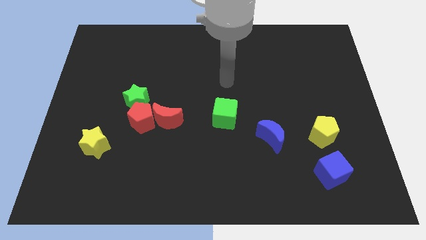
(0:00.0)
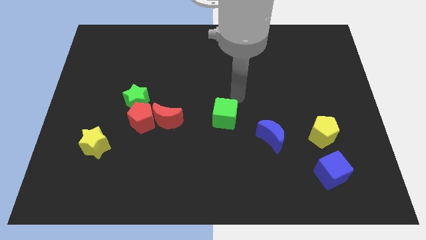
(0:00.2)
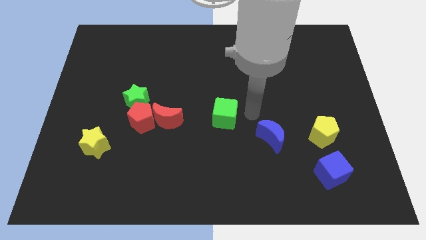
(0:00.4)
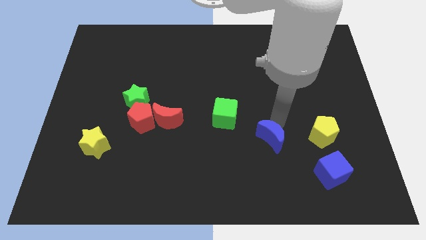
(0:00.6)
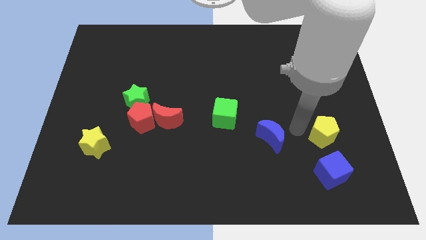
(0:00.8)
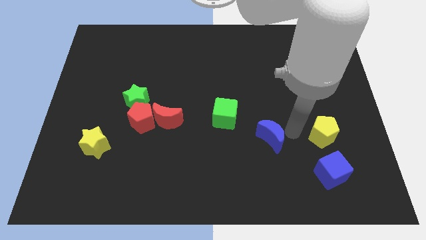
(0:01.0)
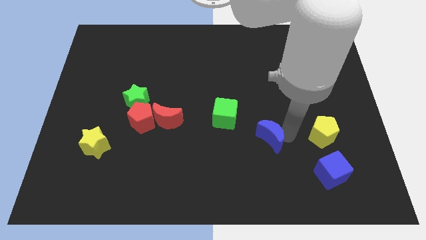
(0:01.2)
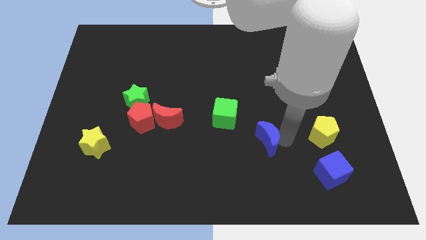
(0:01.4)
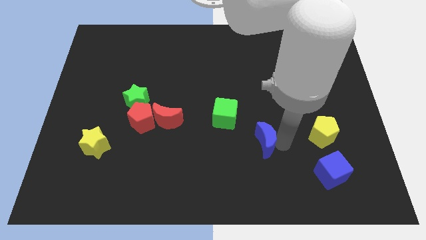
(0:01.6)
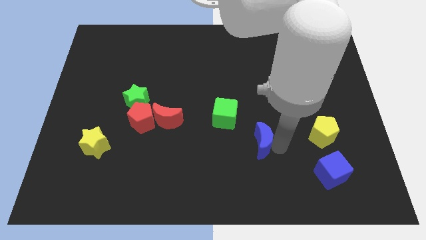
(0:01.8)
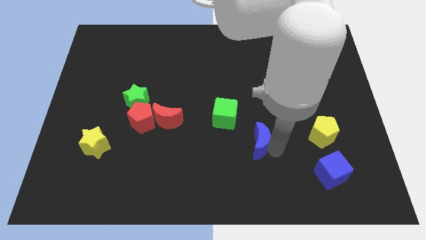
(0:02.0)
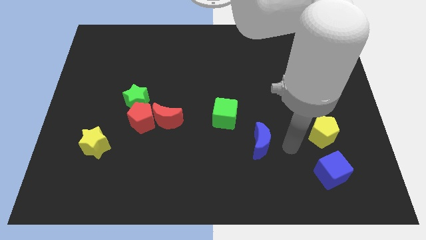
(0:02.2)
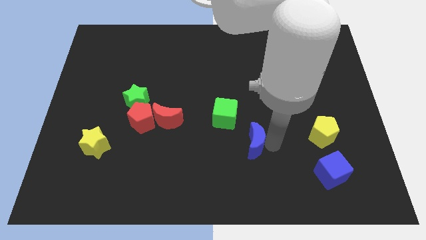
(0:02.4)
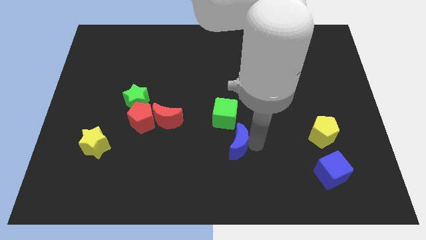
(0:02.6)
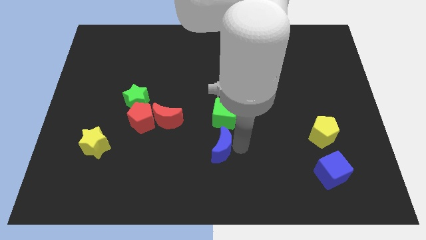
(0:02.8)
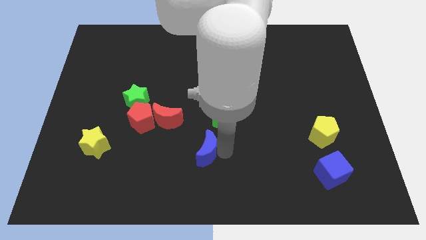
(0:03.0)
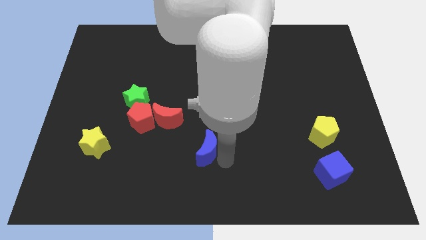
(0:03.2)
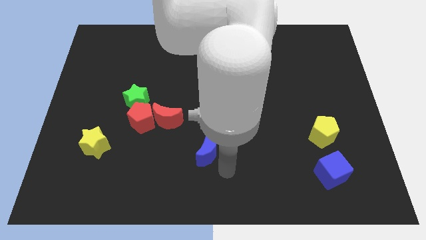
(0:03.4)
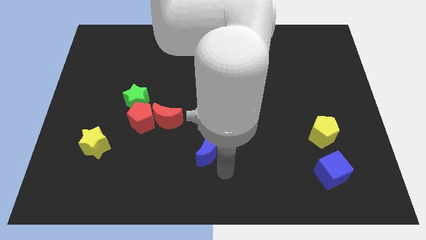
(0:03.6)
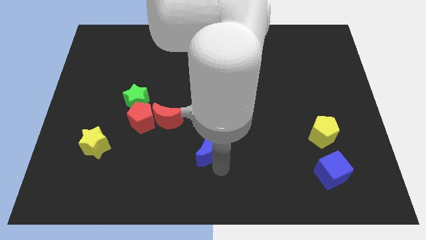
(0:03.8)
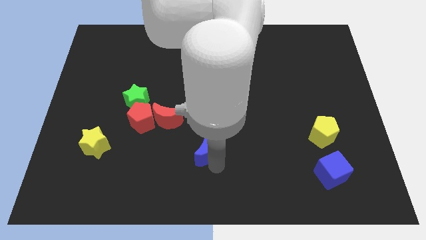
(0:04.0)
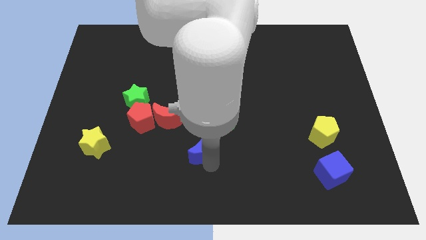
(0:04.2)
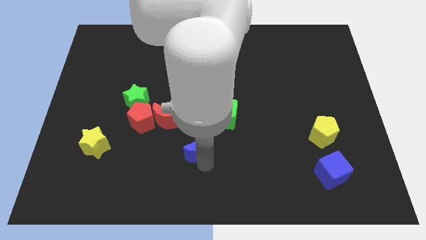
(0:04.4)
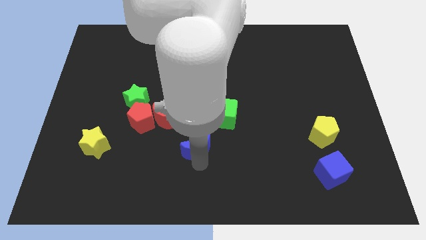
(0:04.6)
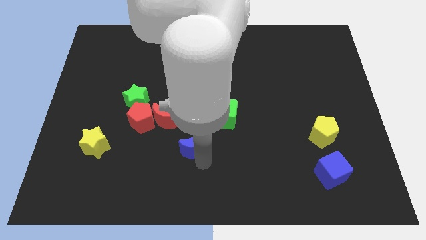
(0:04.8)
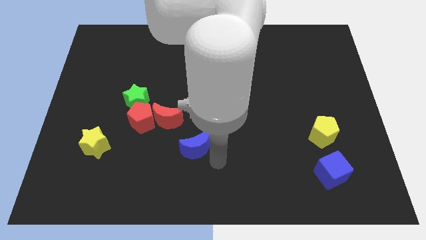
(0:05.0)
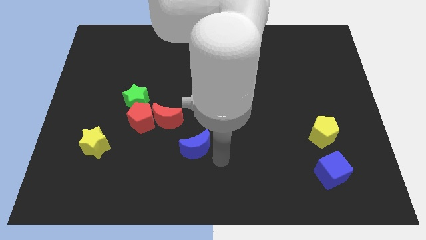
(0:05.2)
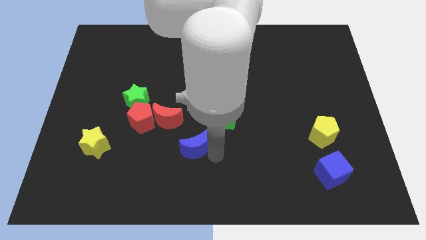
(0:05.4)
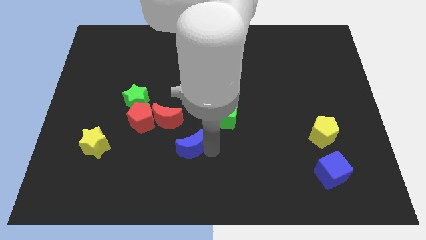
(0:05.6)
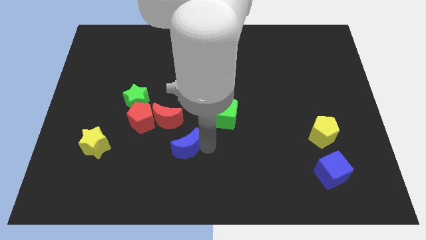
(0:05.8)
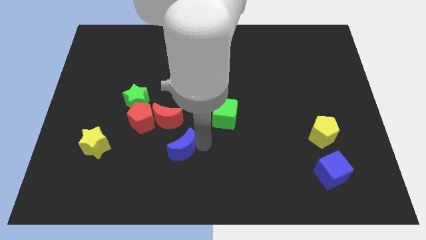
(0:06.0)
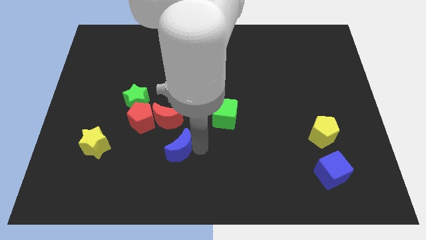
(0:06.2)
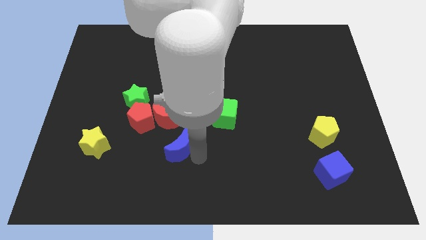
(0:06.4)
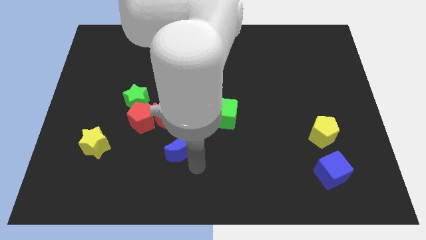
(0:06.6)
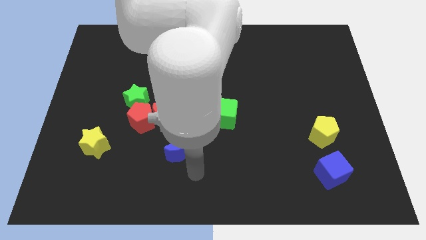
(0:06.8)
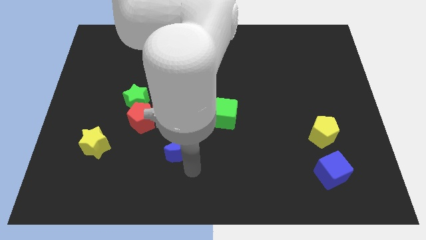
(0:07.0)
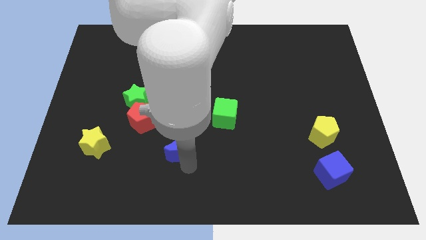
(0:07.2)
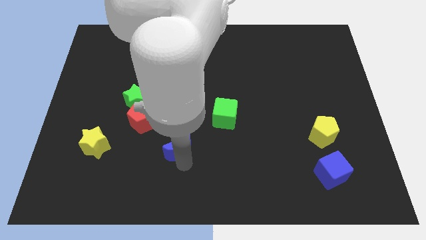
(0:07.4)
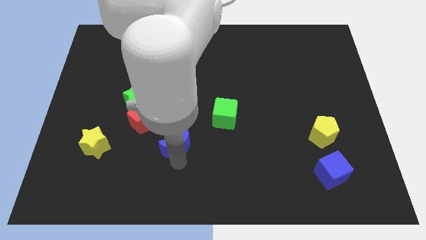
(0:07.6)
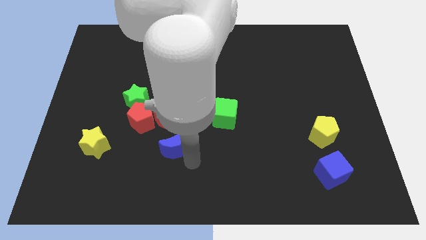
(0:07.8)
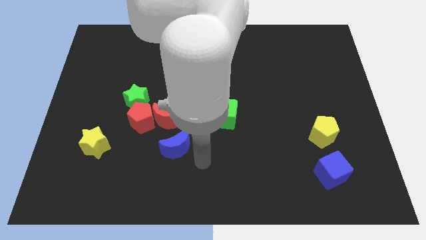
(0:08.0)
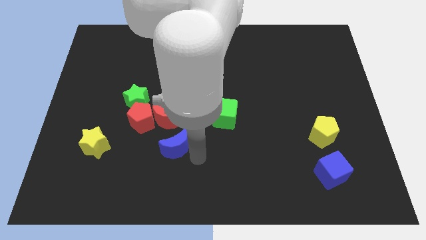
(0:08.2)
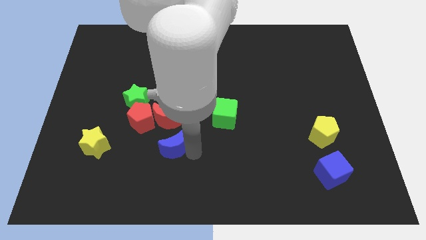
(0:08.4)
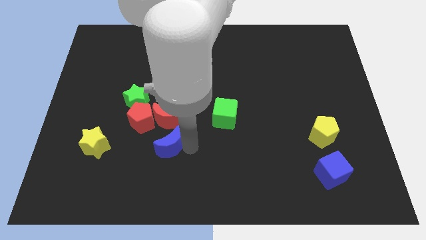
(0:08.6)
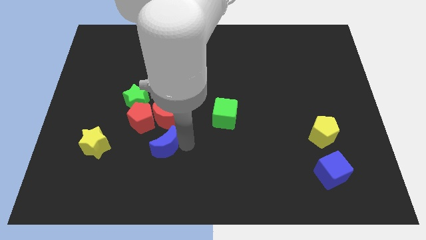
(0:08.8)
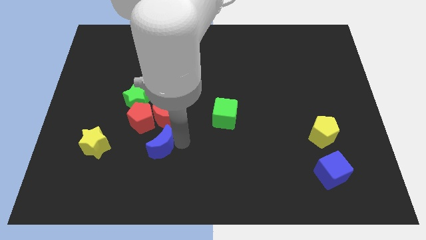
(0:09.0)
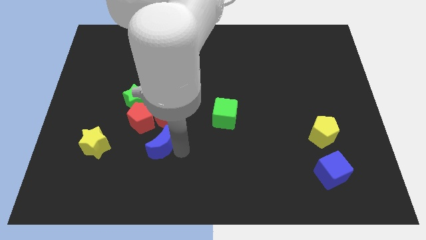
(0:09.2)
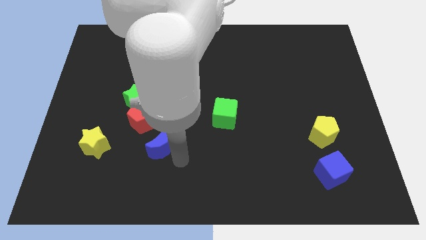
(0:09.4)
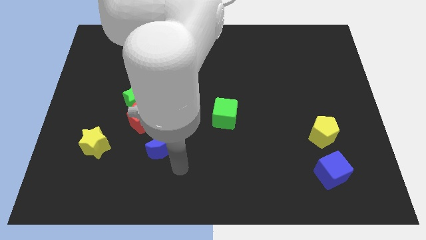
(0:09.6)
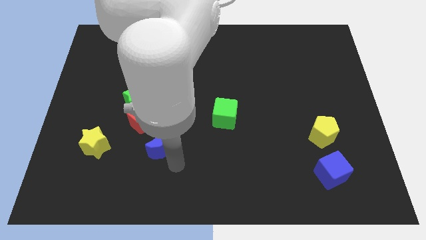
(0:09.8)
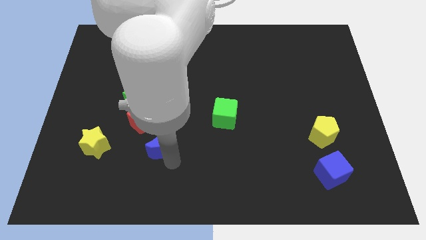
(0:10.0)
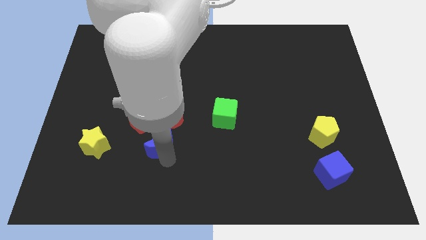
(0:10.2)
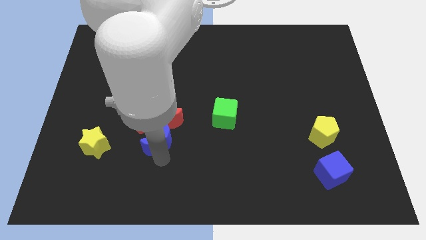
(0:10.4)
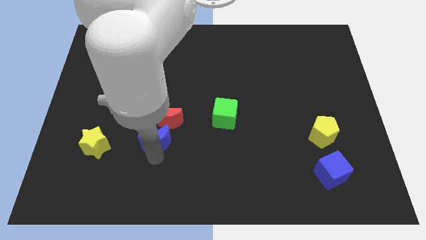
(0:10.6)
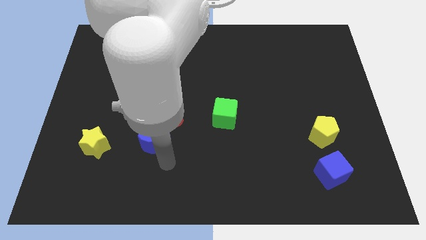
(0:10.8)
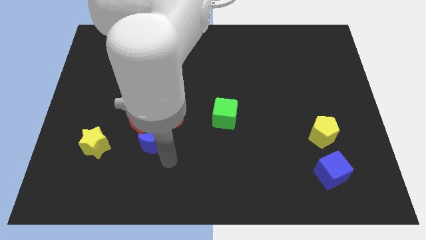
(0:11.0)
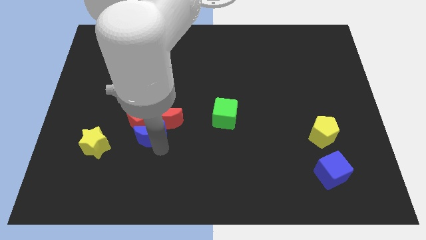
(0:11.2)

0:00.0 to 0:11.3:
move the blue moon close to the red pentagon

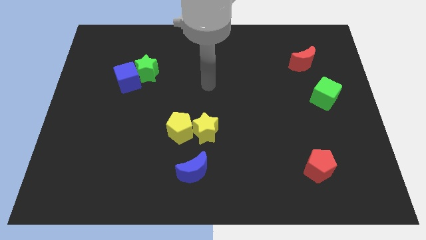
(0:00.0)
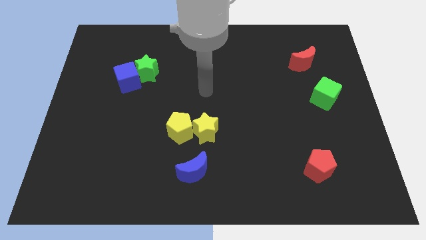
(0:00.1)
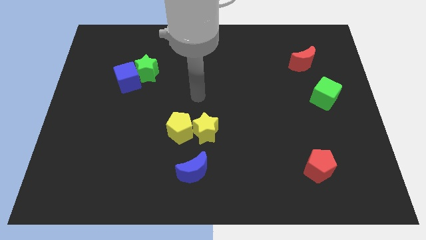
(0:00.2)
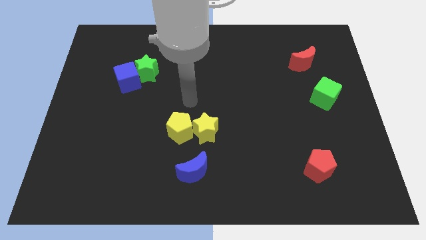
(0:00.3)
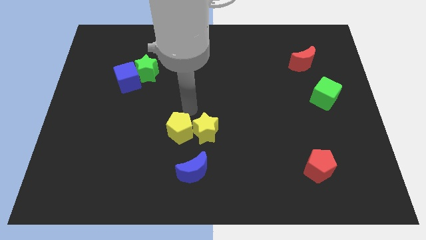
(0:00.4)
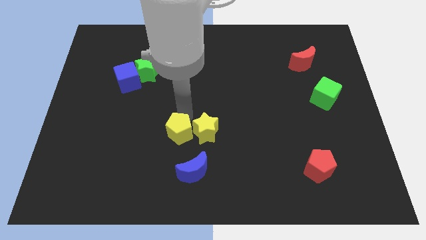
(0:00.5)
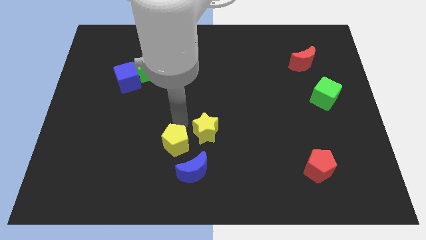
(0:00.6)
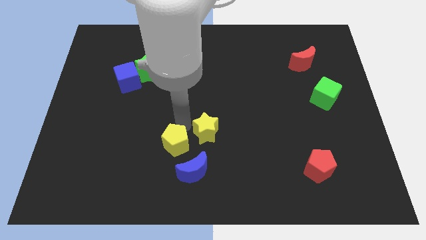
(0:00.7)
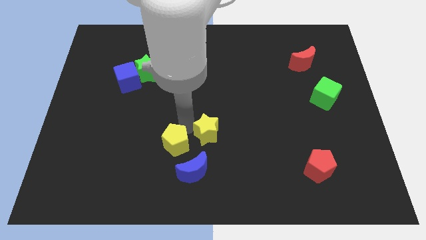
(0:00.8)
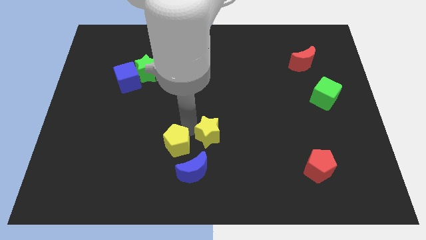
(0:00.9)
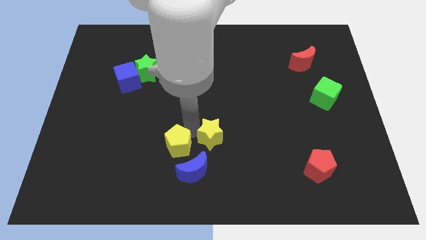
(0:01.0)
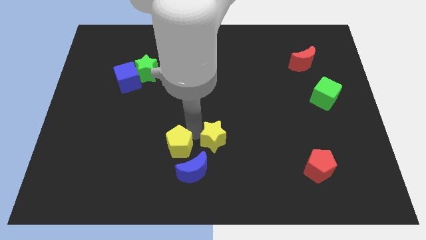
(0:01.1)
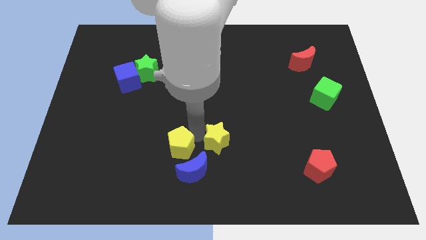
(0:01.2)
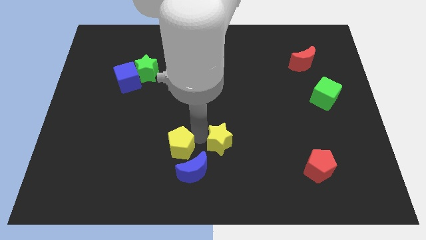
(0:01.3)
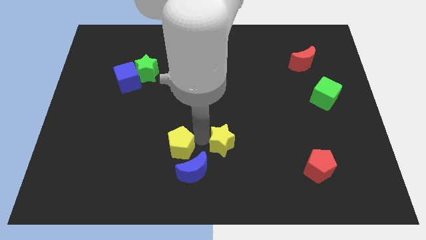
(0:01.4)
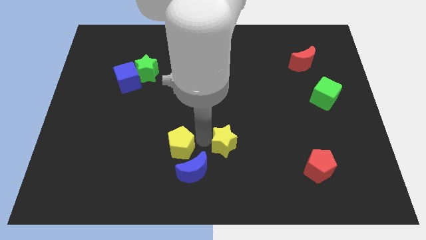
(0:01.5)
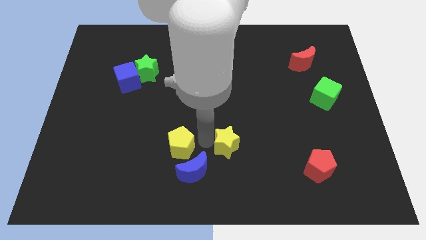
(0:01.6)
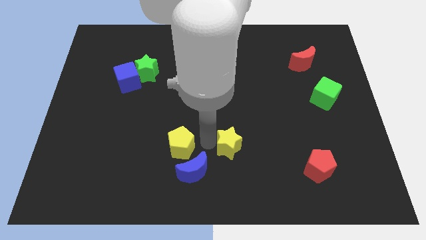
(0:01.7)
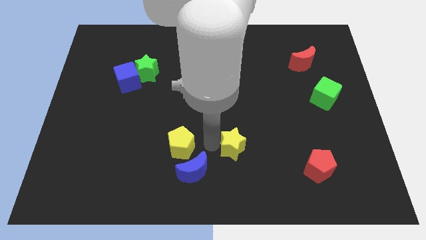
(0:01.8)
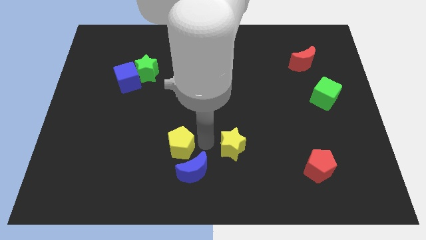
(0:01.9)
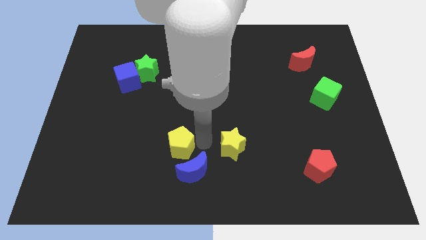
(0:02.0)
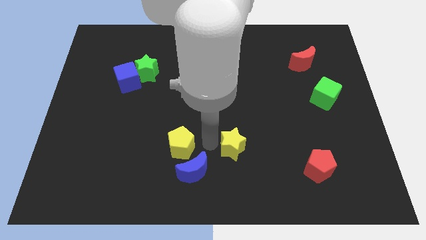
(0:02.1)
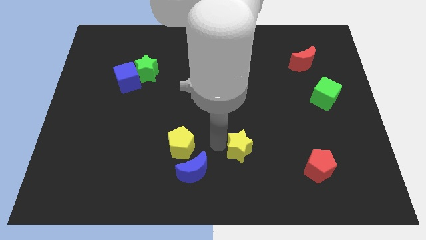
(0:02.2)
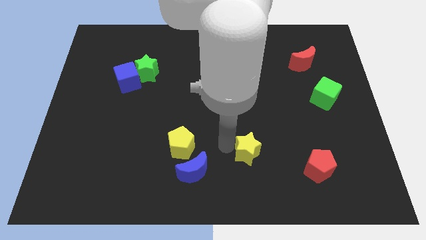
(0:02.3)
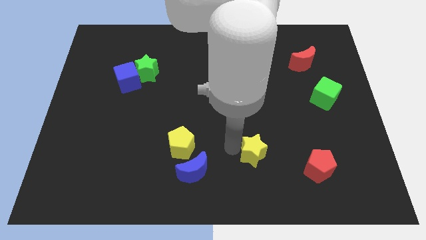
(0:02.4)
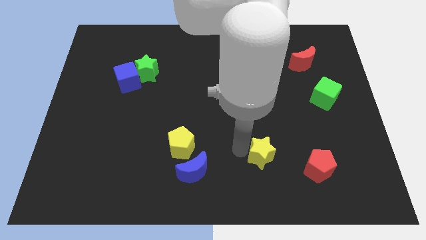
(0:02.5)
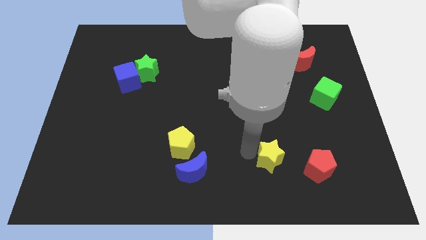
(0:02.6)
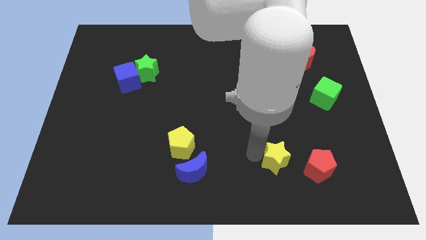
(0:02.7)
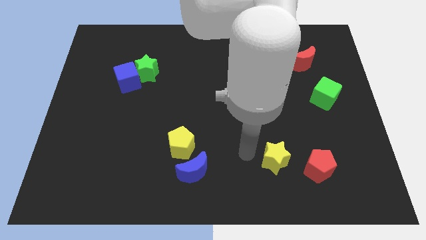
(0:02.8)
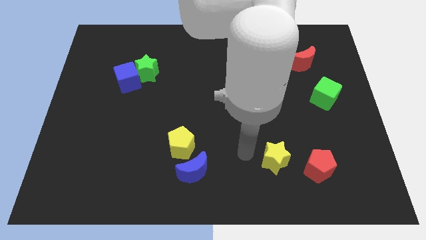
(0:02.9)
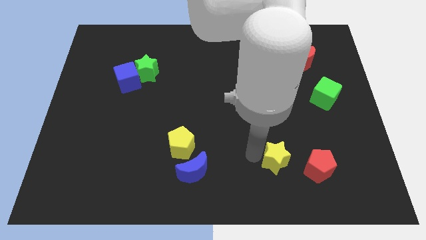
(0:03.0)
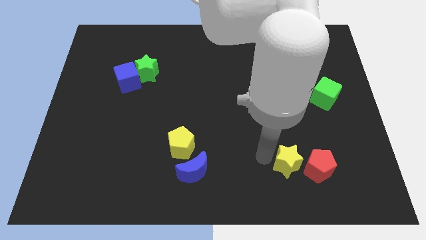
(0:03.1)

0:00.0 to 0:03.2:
push the yellow star towards the red pentagon
